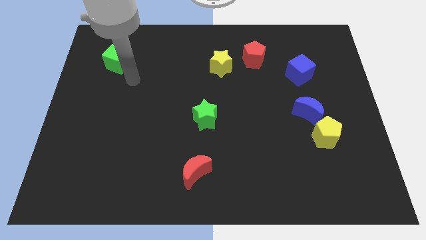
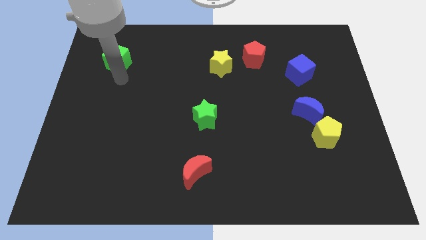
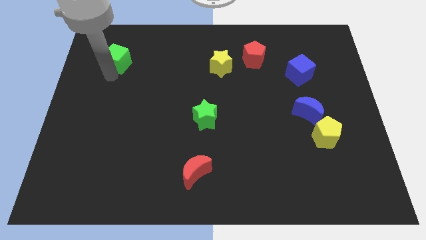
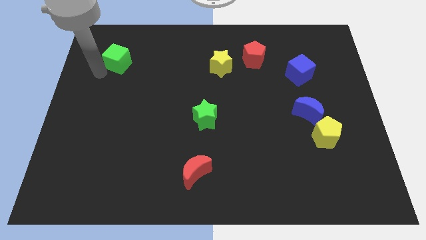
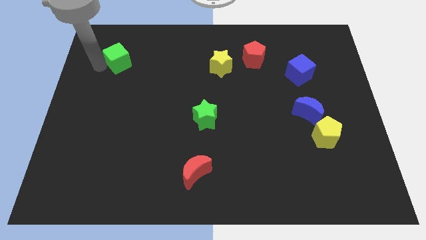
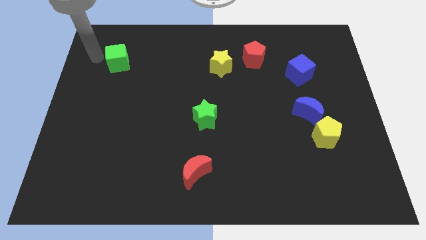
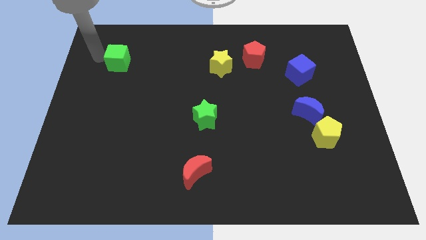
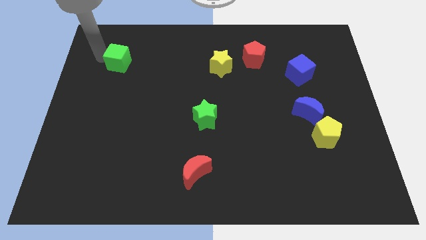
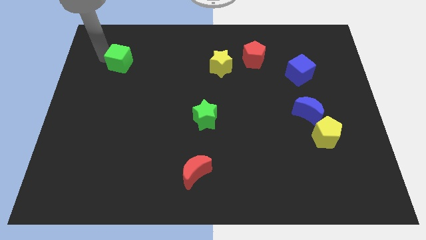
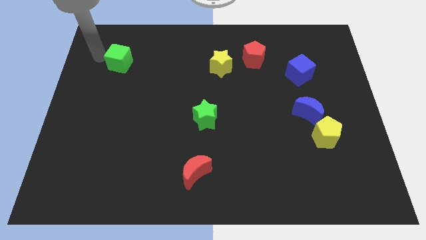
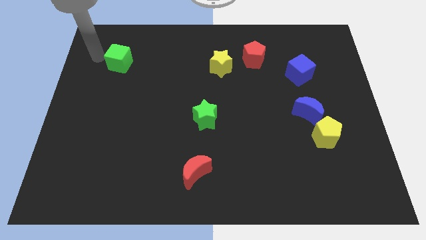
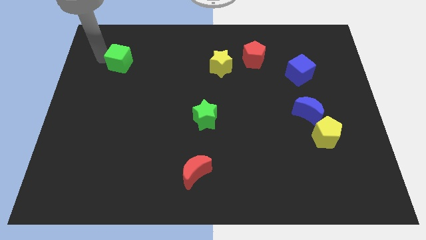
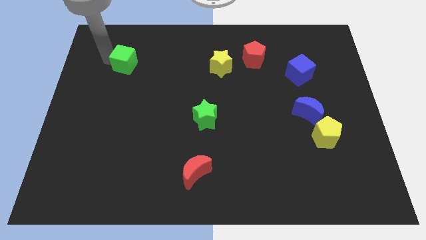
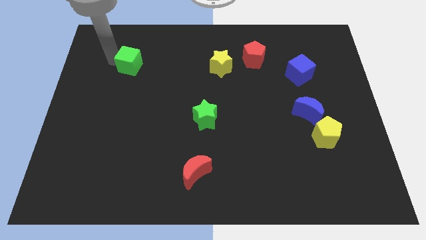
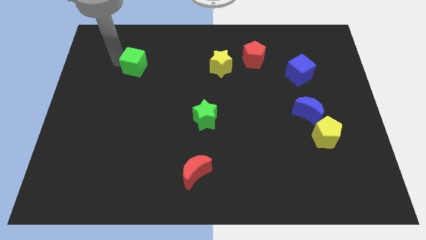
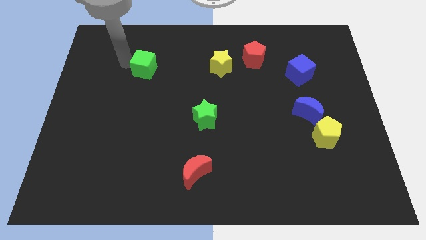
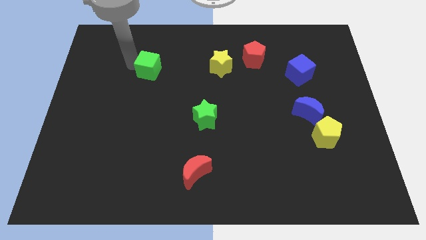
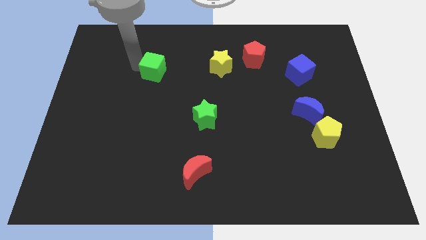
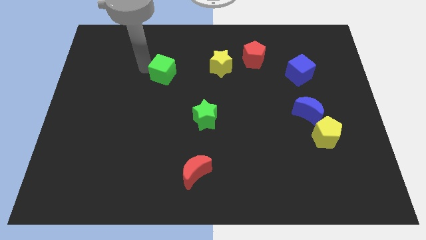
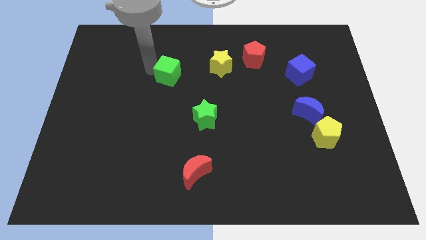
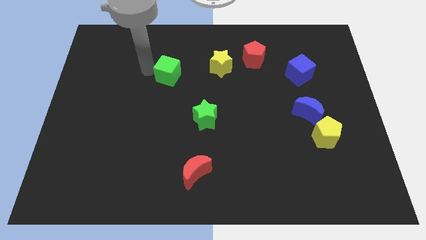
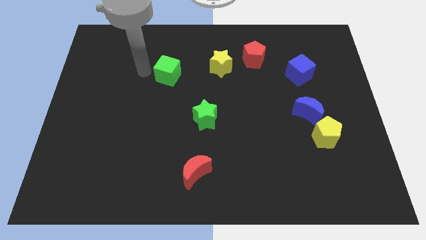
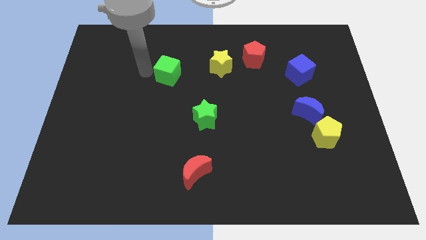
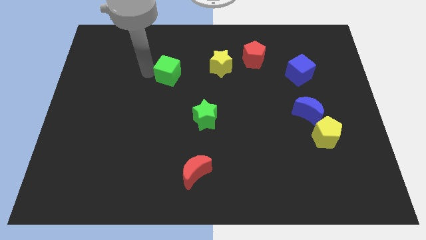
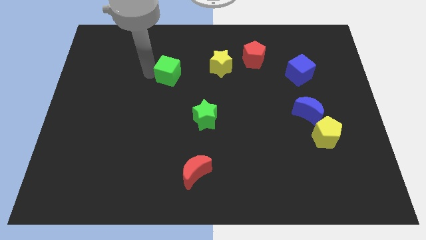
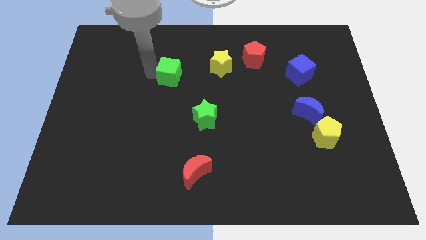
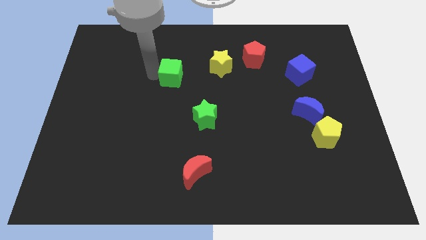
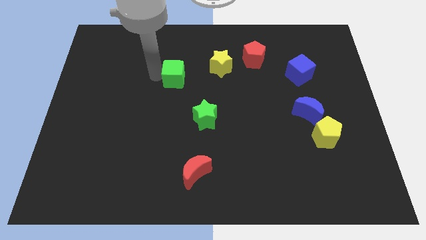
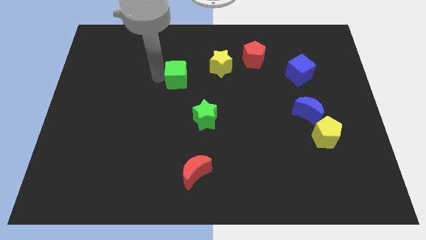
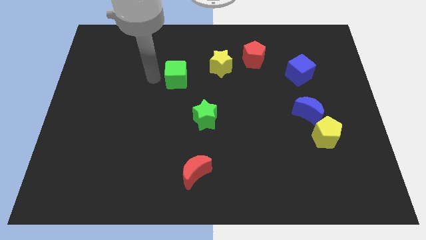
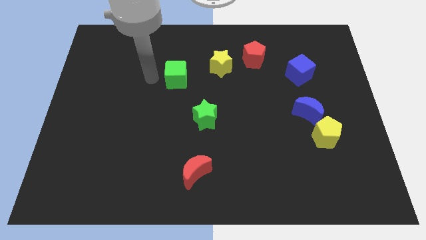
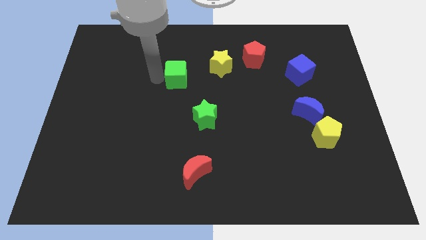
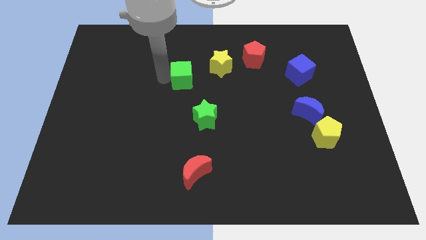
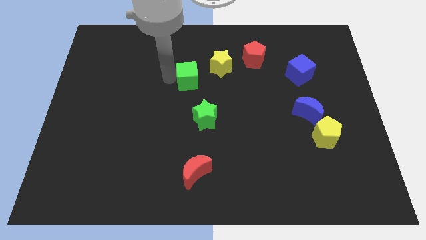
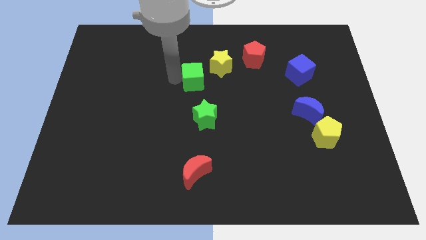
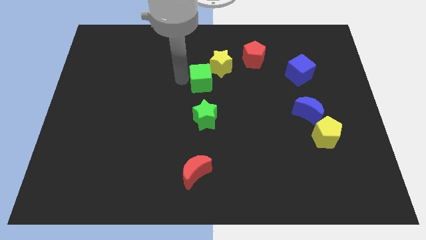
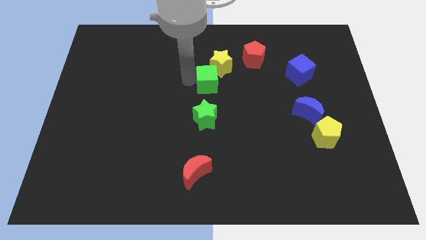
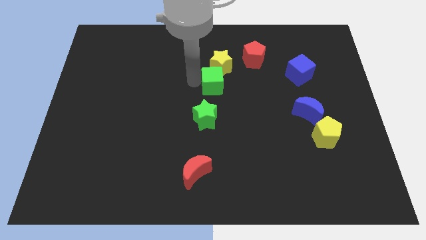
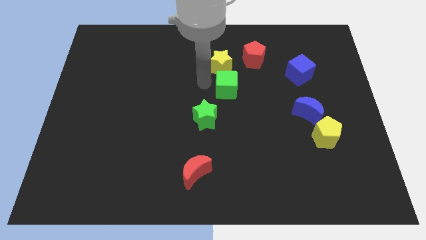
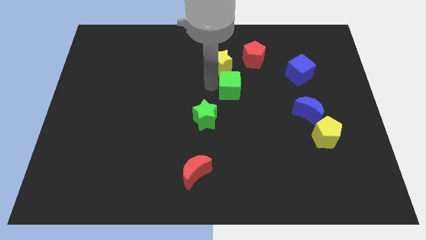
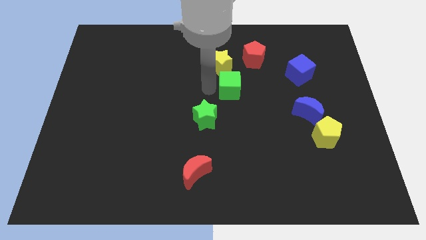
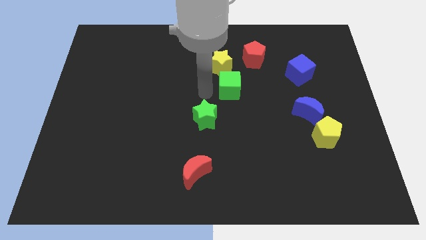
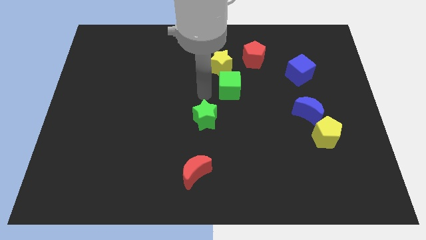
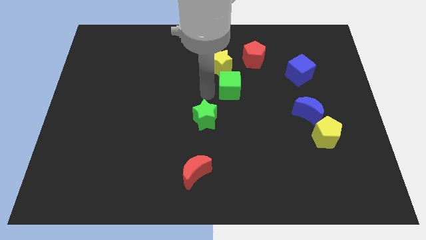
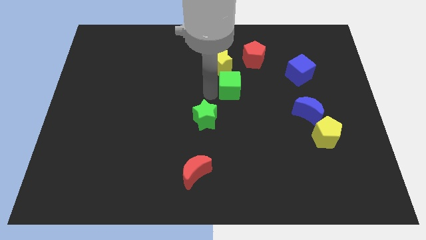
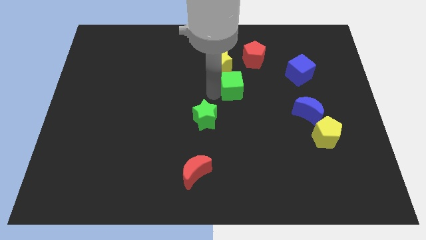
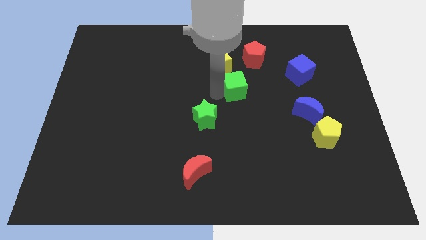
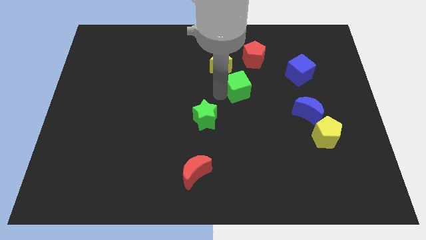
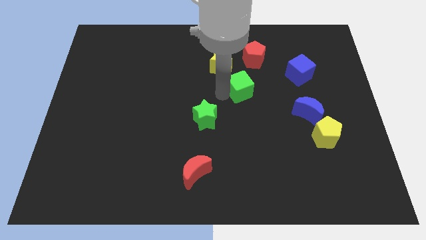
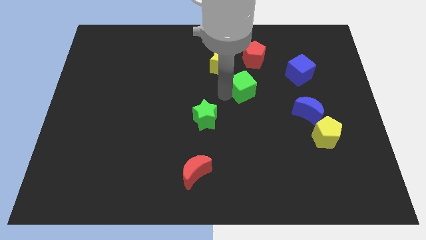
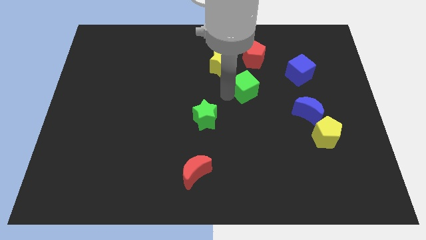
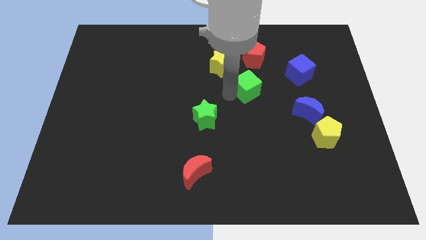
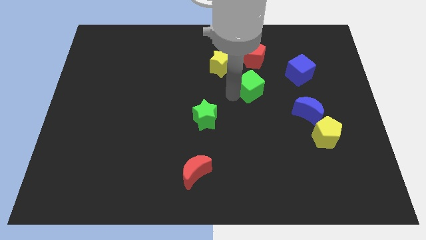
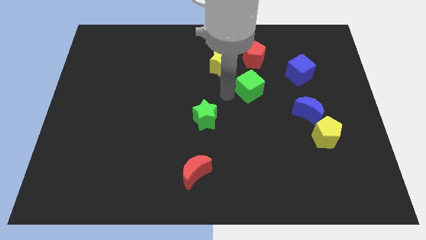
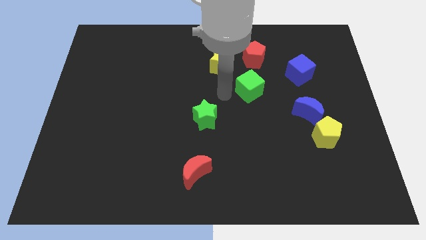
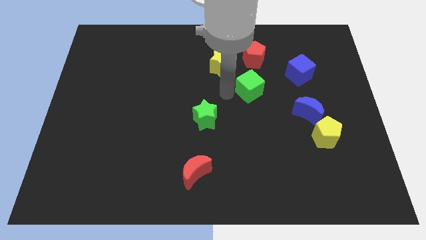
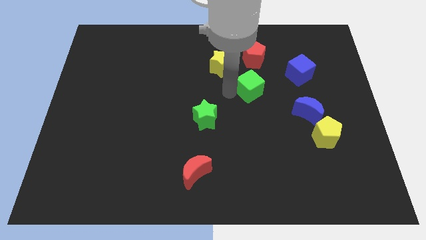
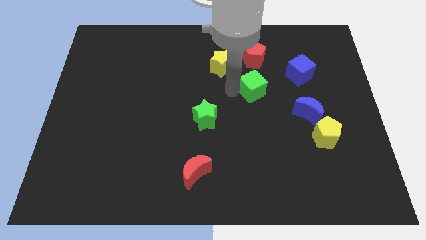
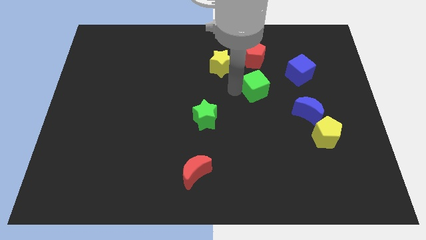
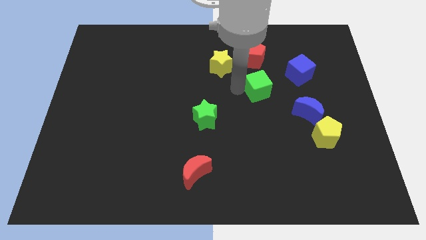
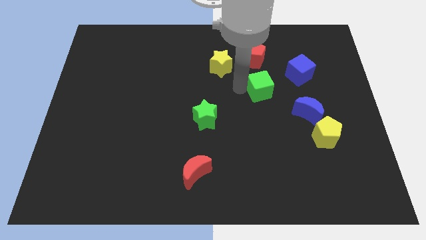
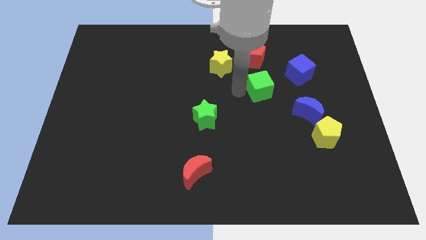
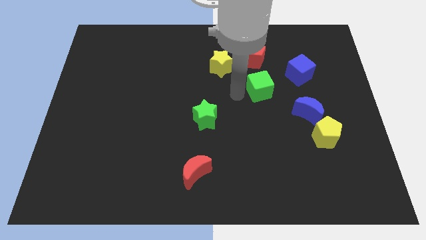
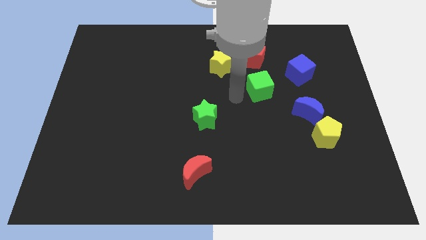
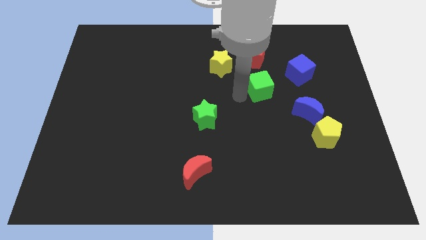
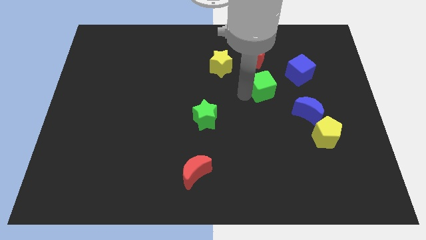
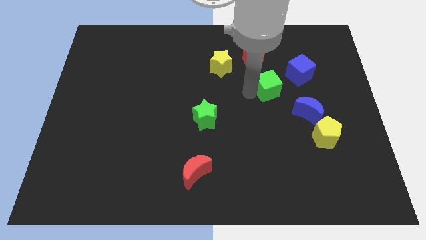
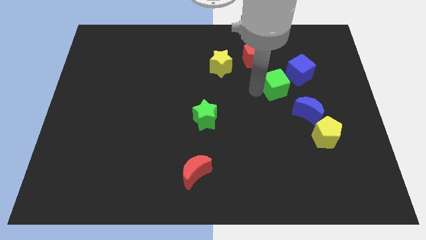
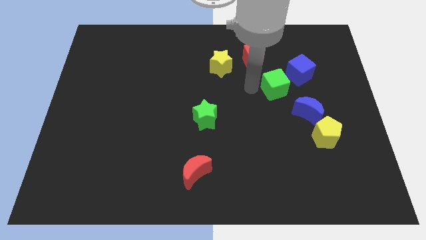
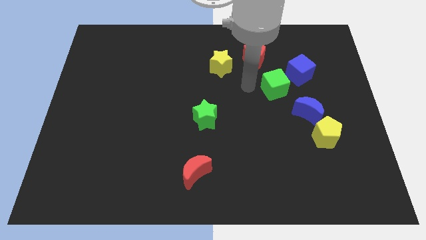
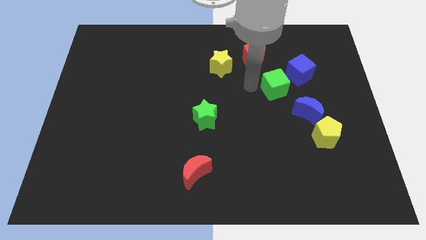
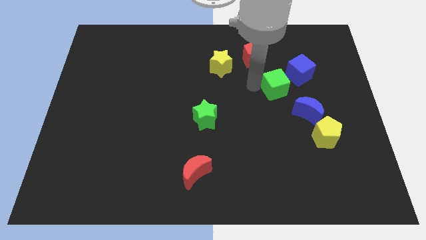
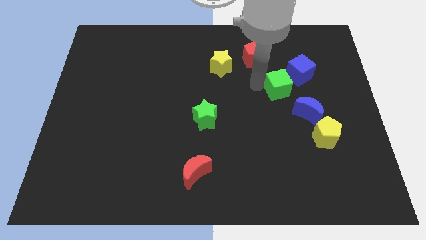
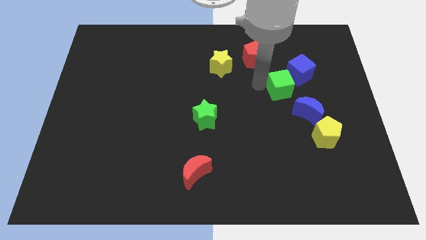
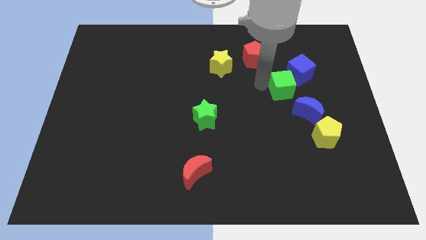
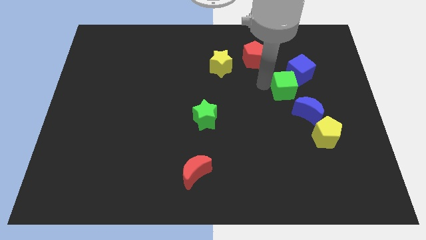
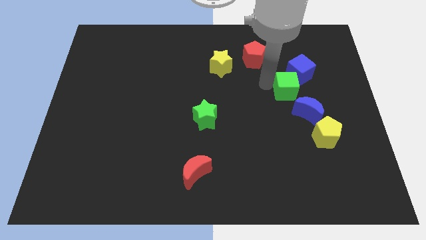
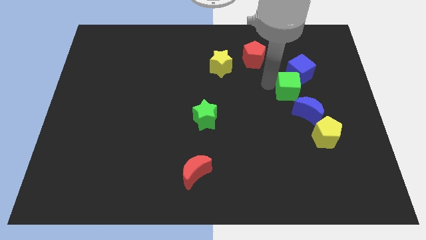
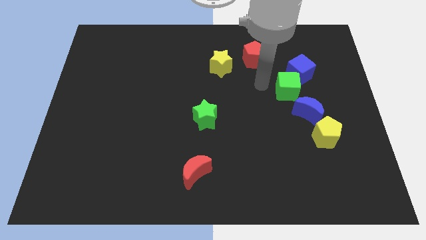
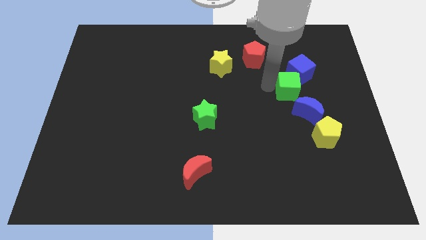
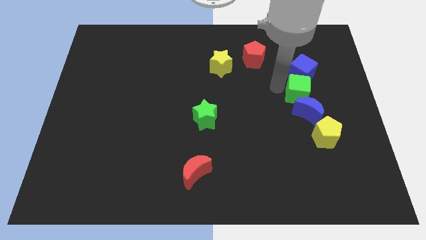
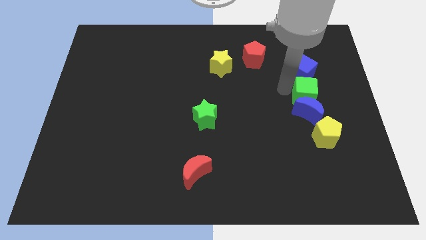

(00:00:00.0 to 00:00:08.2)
slide the green cube to the top right of the blue moon
